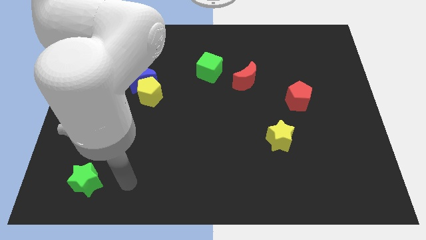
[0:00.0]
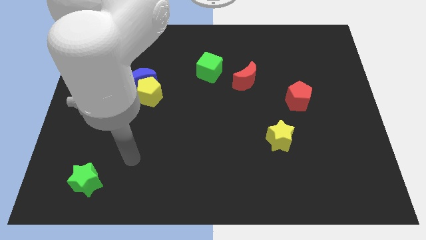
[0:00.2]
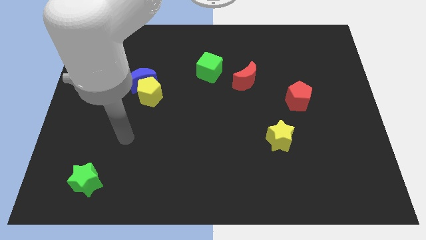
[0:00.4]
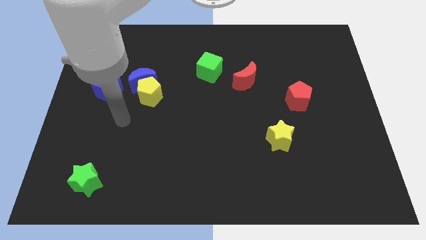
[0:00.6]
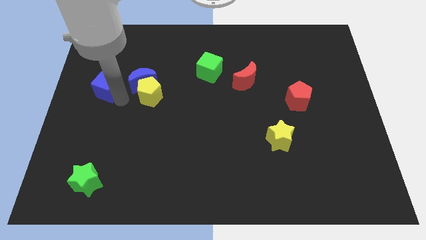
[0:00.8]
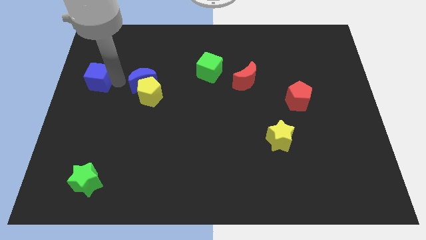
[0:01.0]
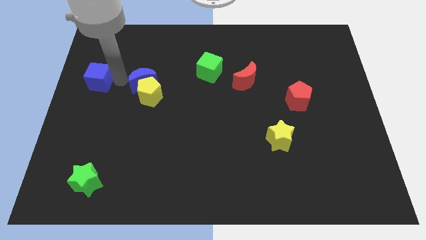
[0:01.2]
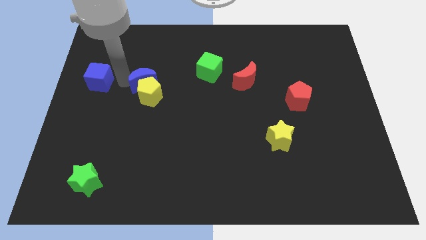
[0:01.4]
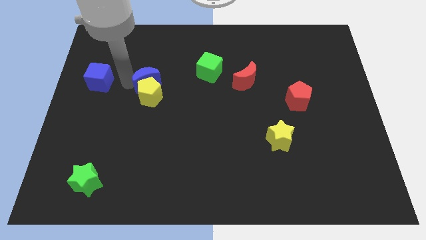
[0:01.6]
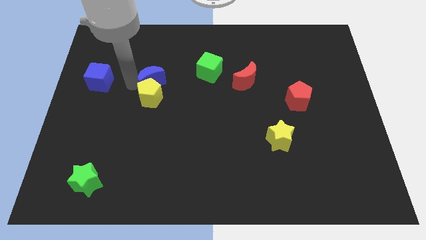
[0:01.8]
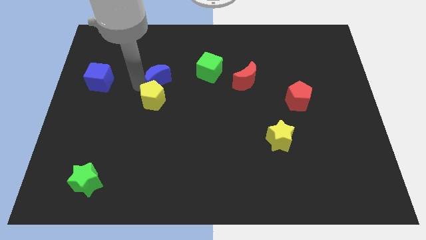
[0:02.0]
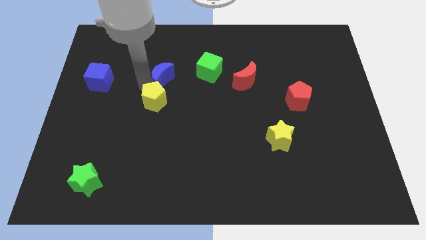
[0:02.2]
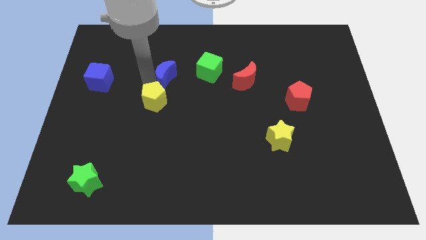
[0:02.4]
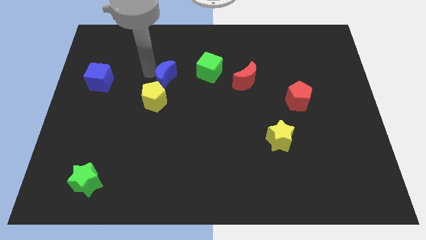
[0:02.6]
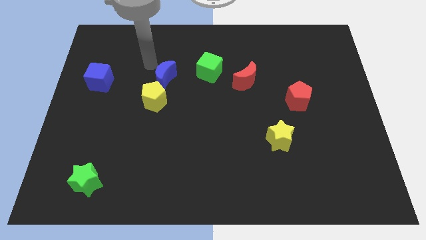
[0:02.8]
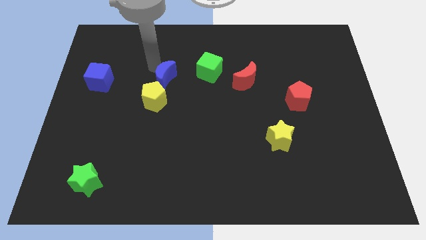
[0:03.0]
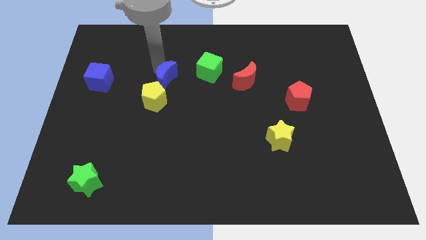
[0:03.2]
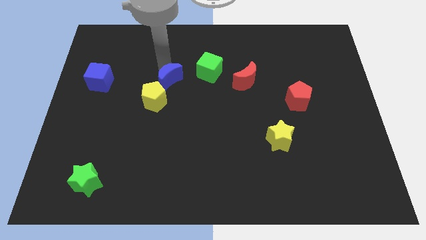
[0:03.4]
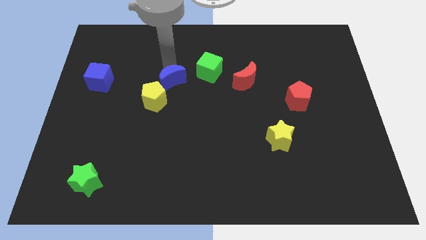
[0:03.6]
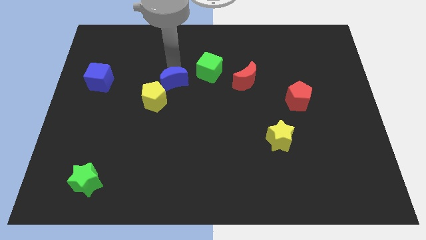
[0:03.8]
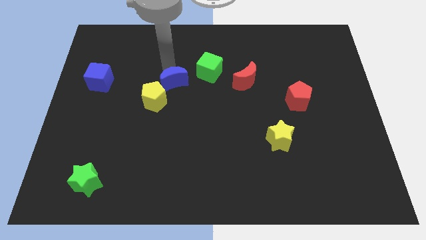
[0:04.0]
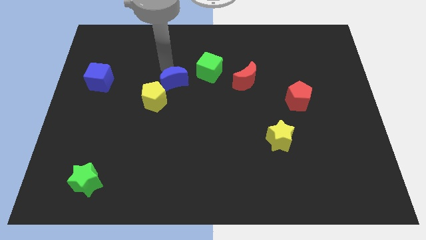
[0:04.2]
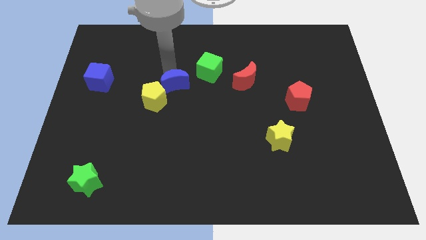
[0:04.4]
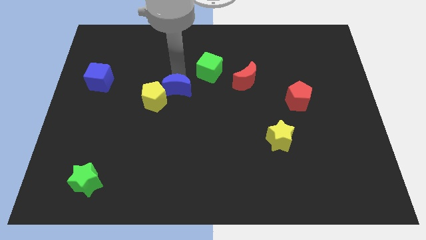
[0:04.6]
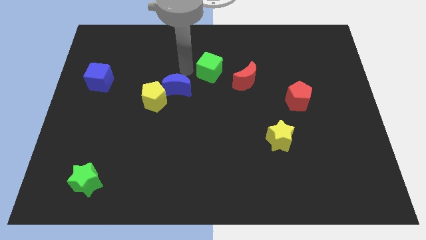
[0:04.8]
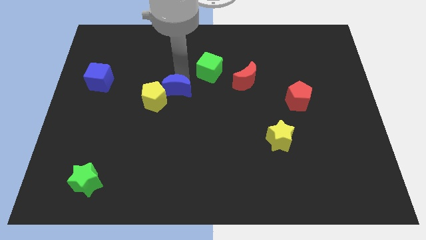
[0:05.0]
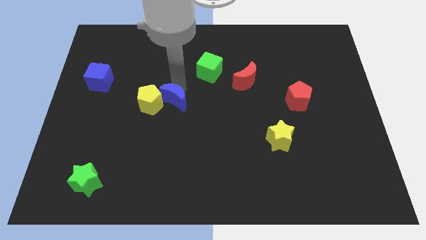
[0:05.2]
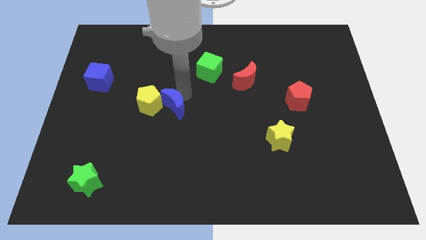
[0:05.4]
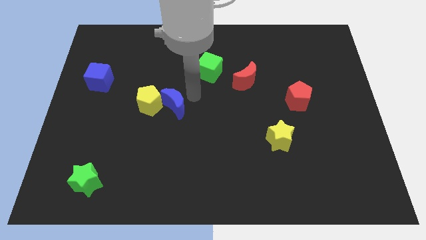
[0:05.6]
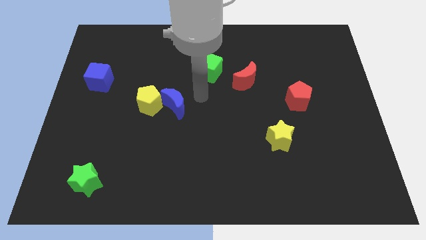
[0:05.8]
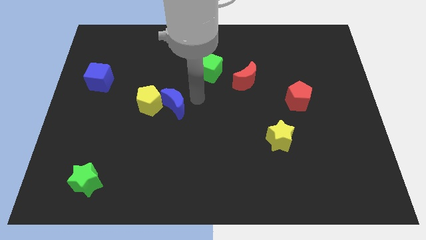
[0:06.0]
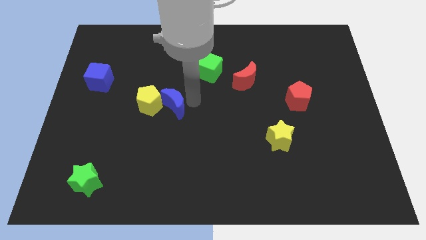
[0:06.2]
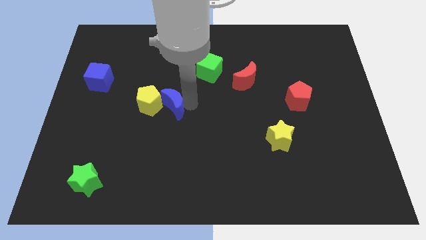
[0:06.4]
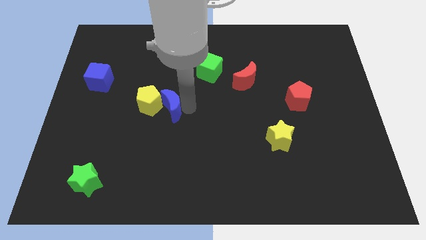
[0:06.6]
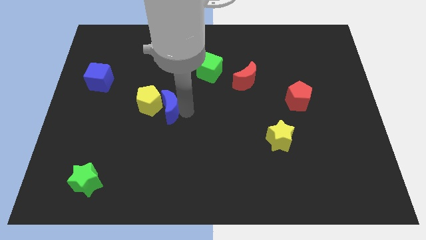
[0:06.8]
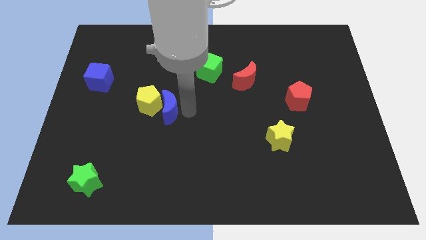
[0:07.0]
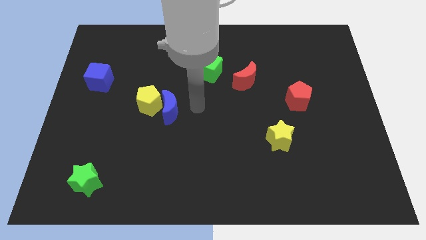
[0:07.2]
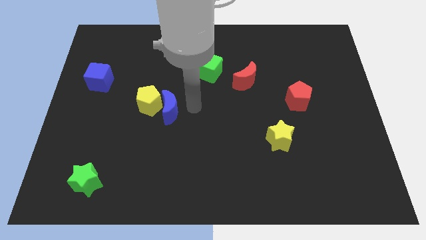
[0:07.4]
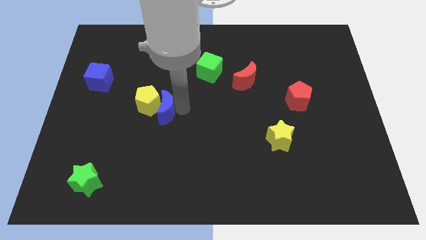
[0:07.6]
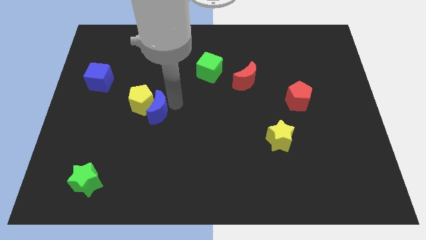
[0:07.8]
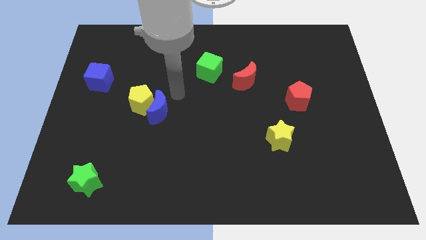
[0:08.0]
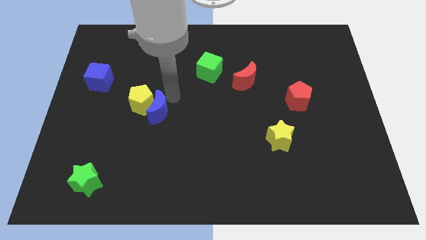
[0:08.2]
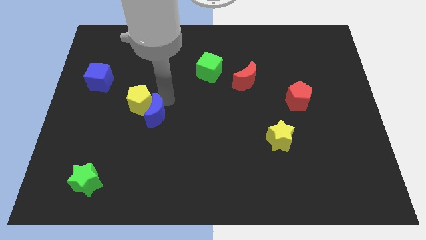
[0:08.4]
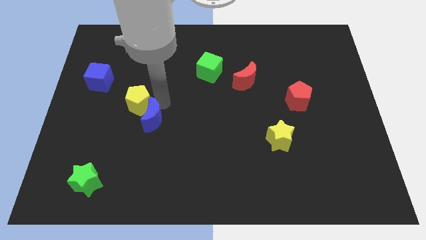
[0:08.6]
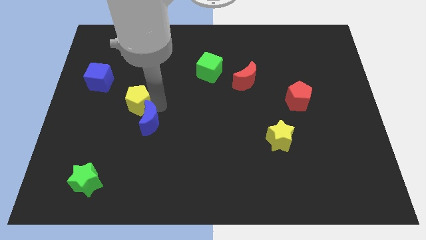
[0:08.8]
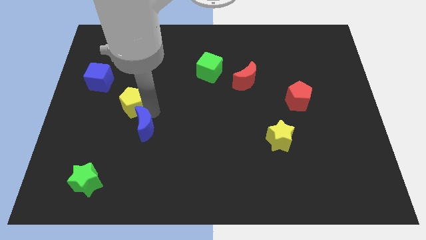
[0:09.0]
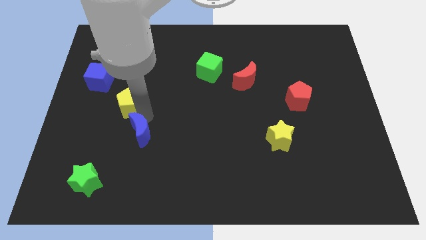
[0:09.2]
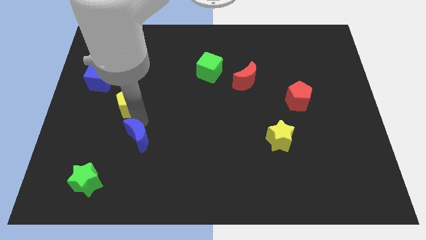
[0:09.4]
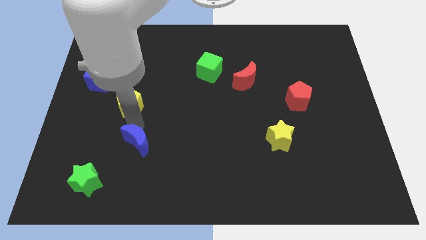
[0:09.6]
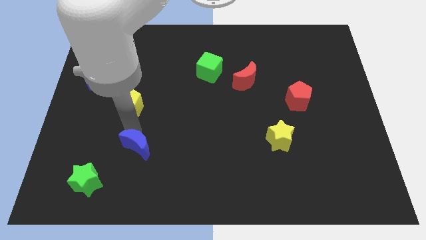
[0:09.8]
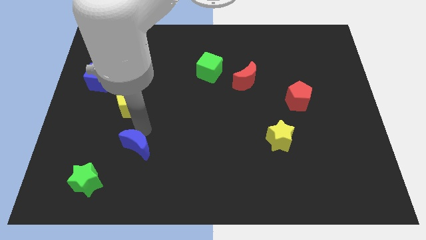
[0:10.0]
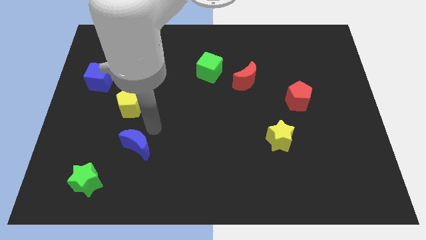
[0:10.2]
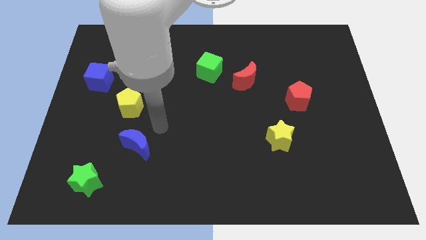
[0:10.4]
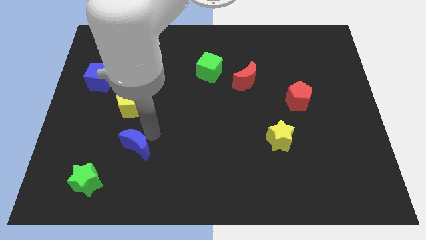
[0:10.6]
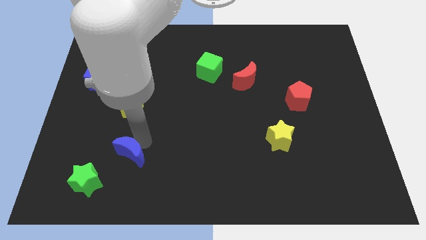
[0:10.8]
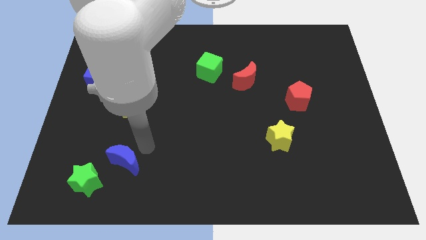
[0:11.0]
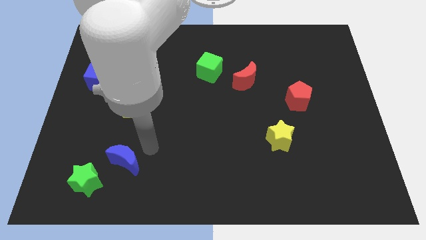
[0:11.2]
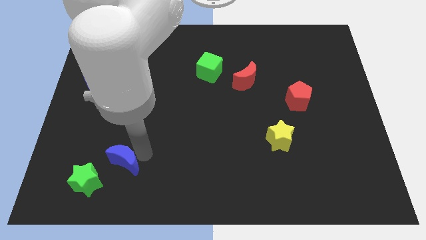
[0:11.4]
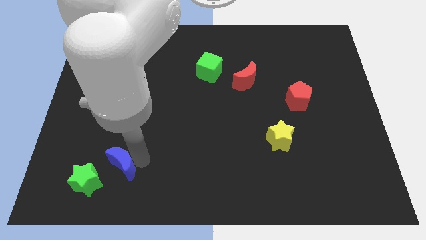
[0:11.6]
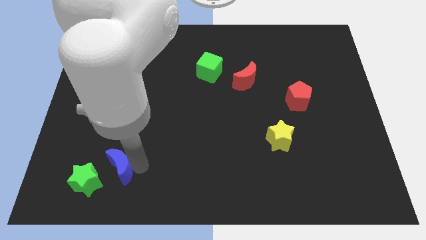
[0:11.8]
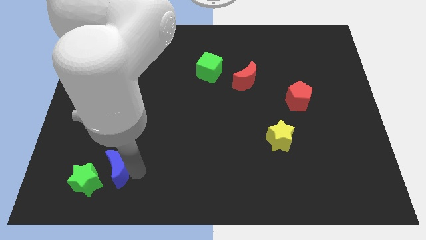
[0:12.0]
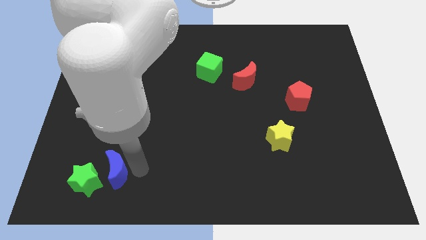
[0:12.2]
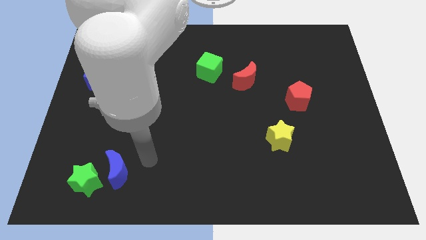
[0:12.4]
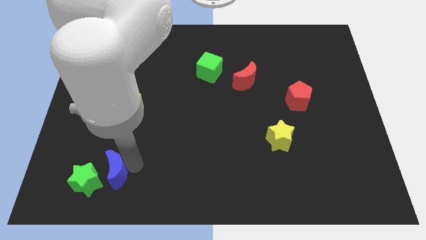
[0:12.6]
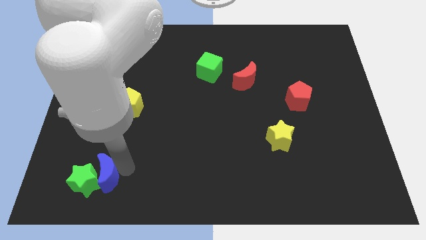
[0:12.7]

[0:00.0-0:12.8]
move the blue moon towards the green star

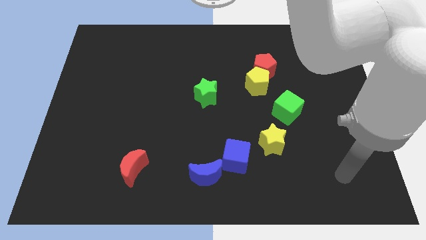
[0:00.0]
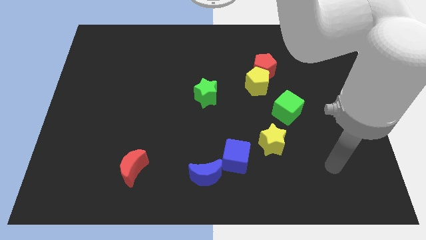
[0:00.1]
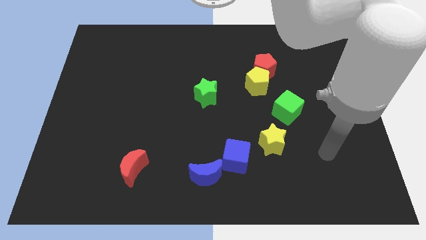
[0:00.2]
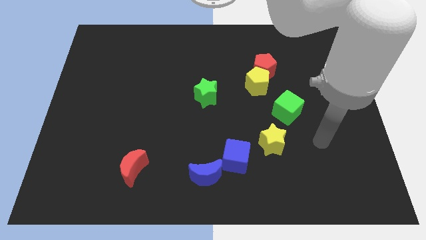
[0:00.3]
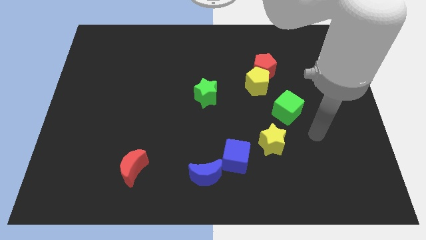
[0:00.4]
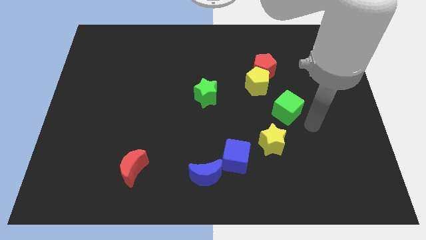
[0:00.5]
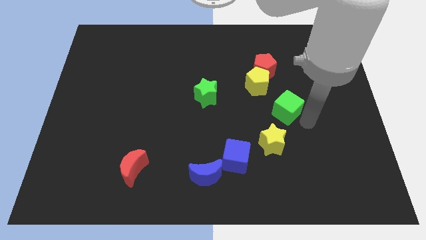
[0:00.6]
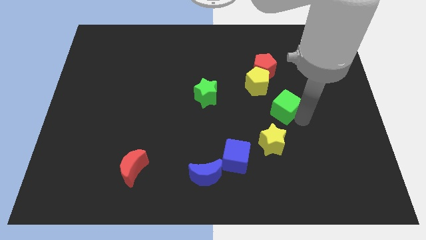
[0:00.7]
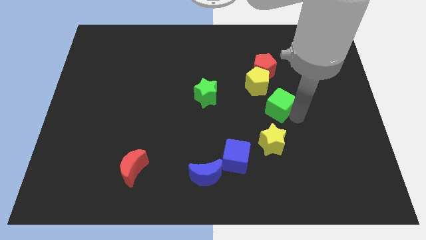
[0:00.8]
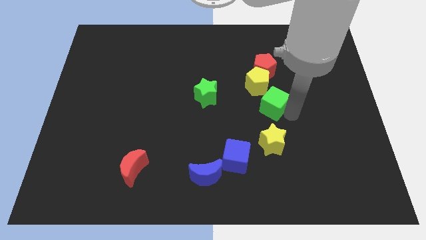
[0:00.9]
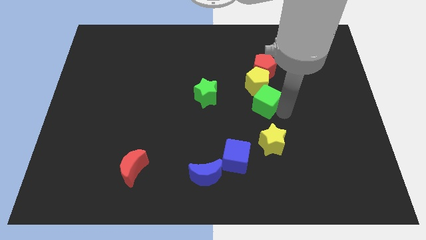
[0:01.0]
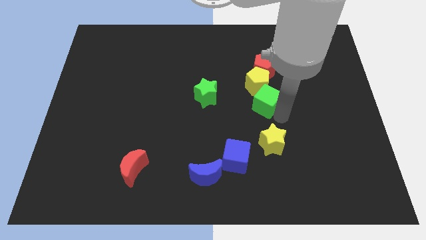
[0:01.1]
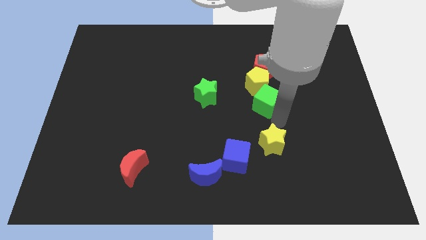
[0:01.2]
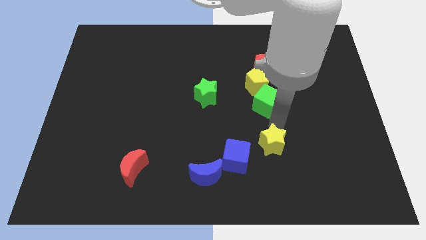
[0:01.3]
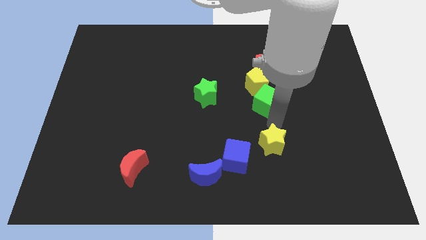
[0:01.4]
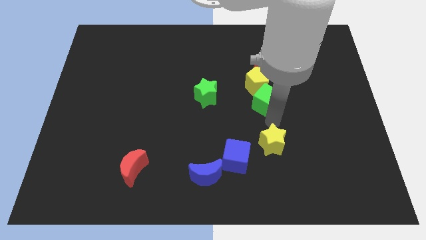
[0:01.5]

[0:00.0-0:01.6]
move the green cube to the yellow pentagon
